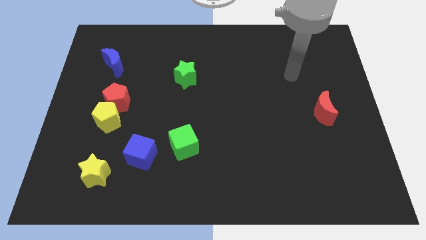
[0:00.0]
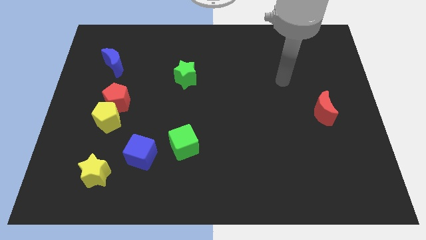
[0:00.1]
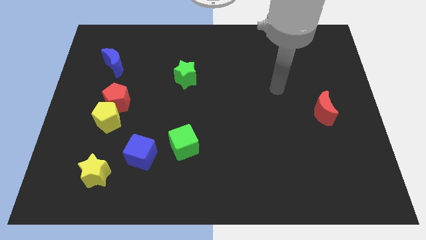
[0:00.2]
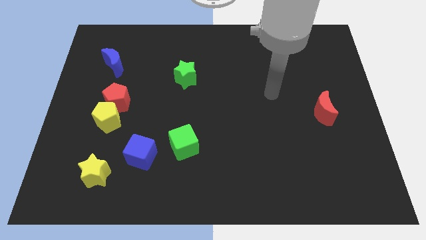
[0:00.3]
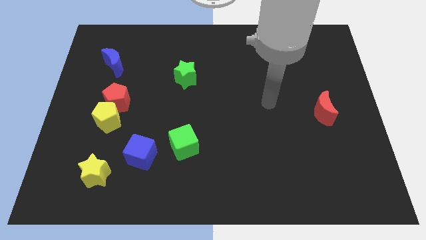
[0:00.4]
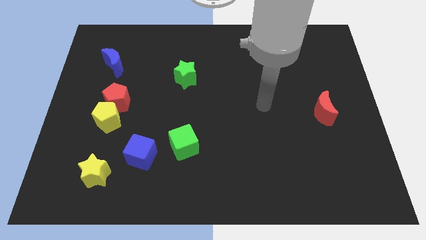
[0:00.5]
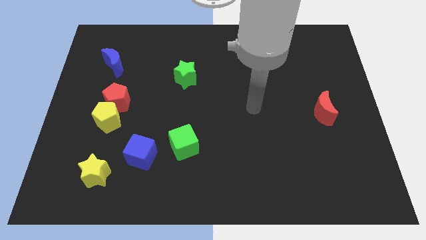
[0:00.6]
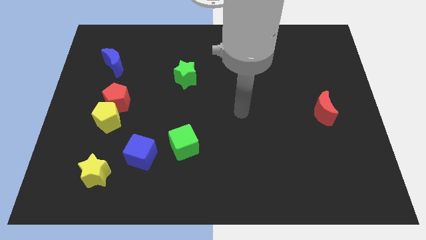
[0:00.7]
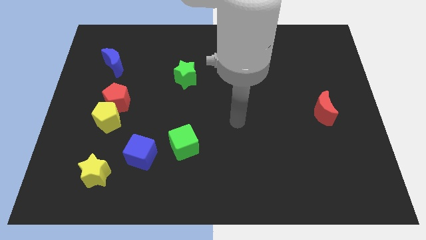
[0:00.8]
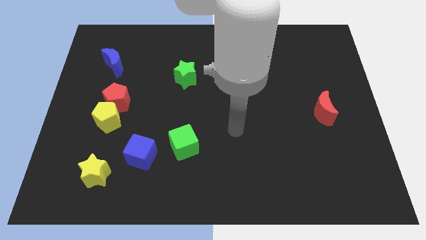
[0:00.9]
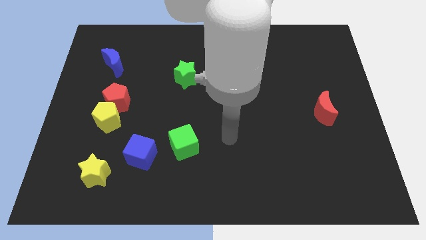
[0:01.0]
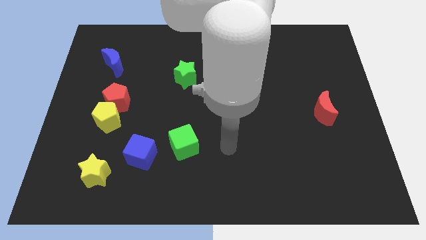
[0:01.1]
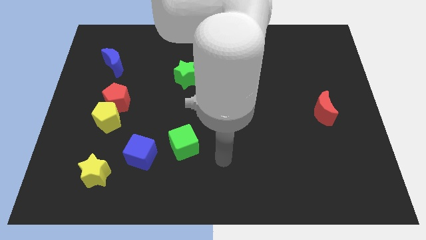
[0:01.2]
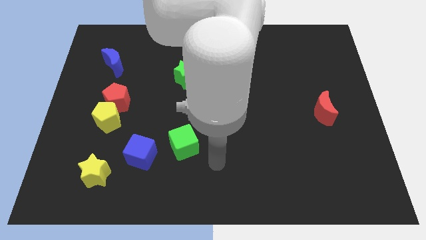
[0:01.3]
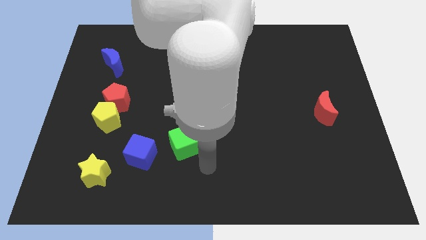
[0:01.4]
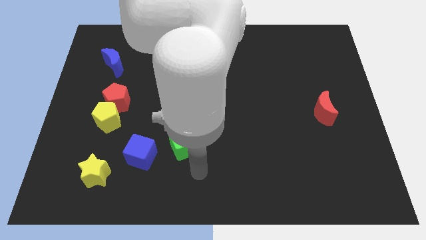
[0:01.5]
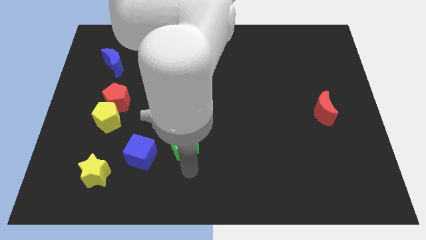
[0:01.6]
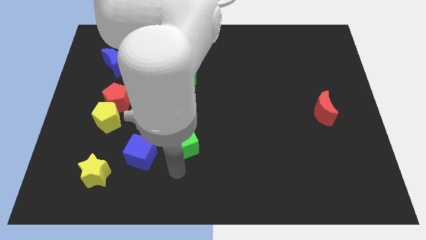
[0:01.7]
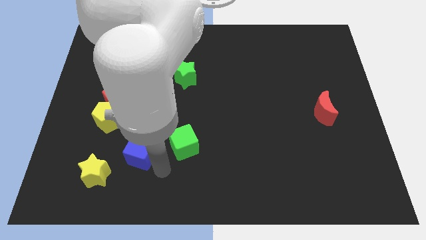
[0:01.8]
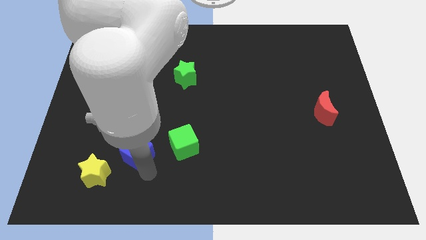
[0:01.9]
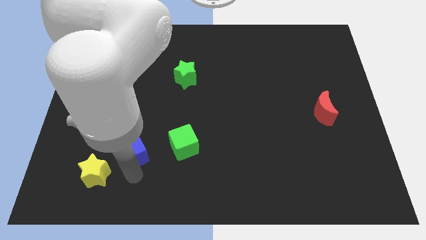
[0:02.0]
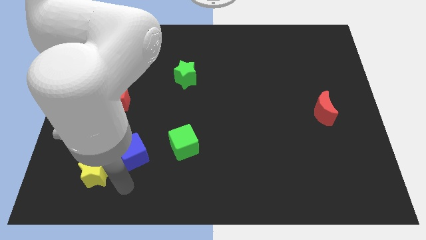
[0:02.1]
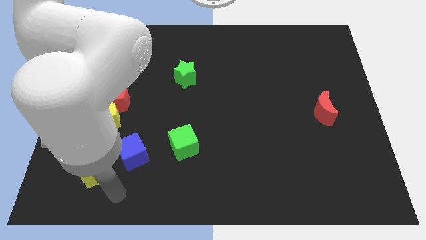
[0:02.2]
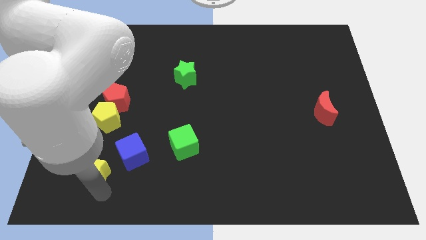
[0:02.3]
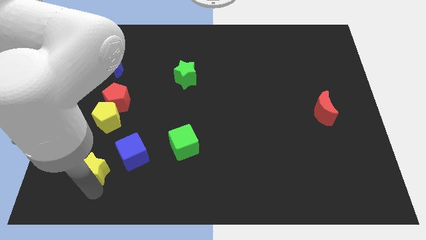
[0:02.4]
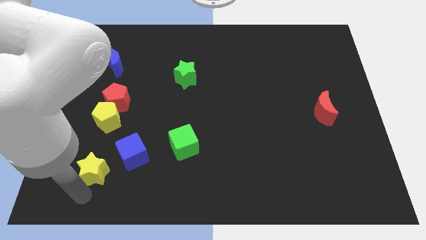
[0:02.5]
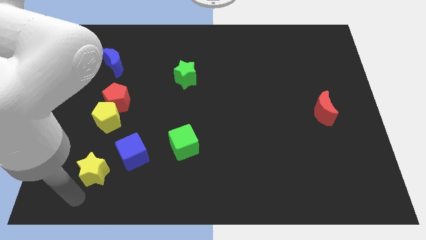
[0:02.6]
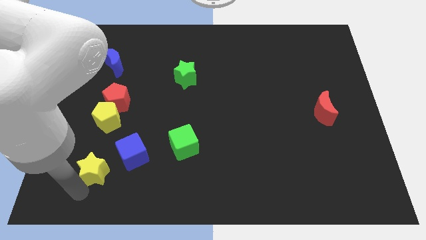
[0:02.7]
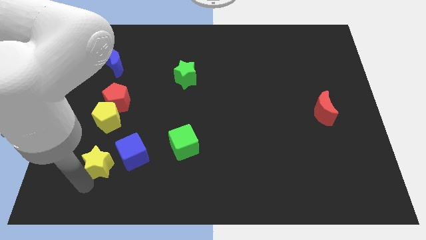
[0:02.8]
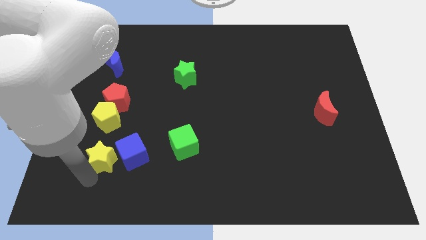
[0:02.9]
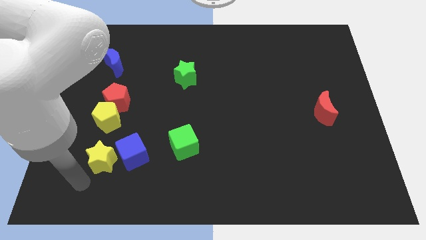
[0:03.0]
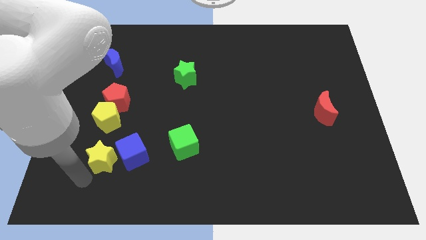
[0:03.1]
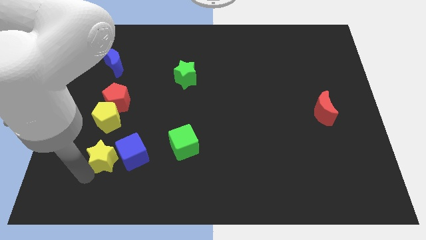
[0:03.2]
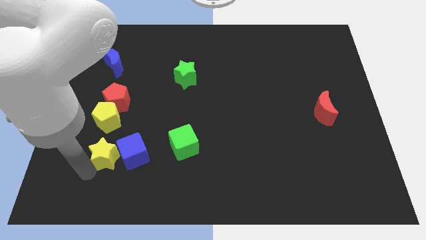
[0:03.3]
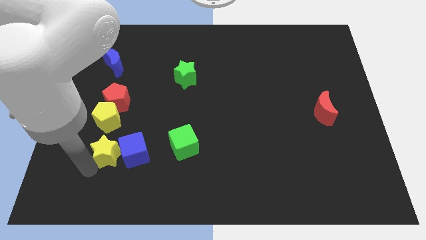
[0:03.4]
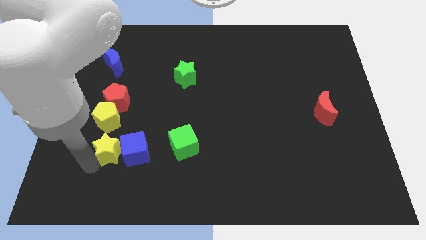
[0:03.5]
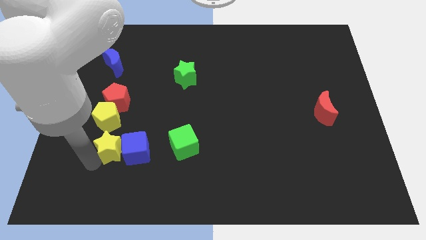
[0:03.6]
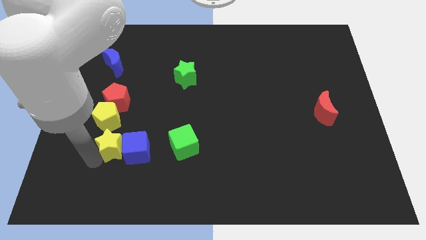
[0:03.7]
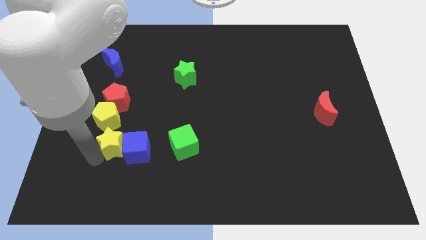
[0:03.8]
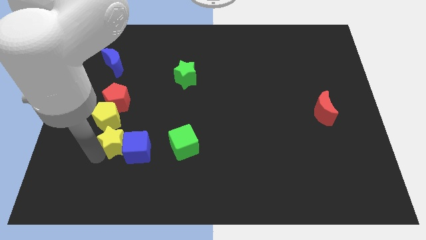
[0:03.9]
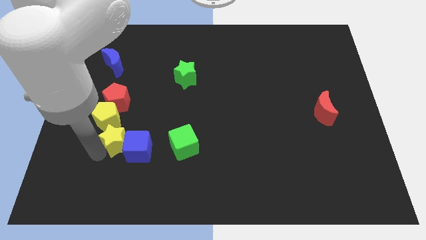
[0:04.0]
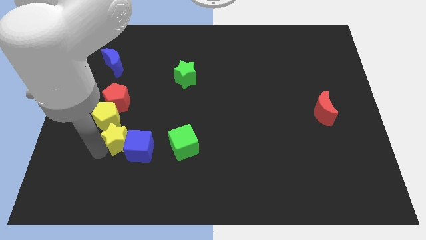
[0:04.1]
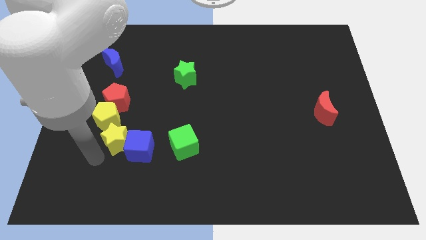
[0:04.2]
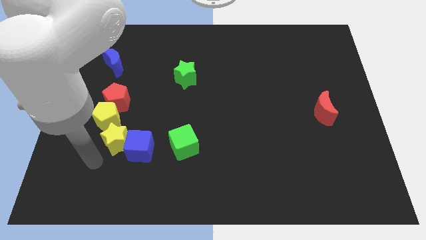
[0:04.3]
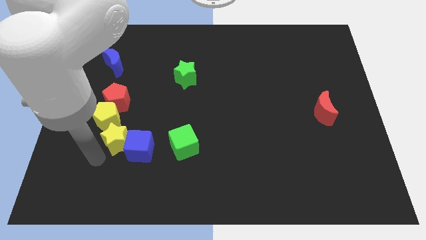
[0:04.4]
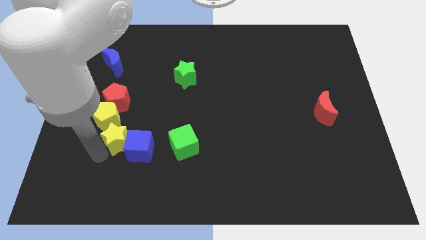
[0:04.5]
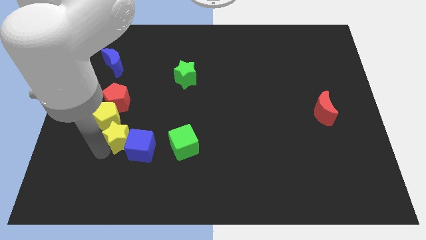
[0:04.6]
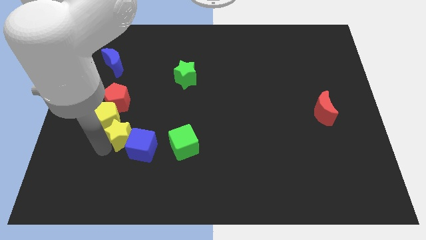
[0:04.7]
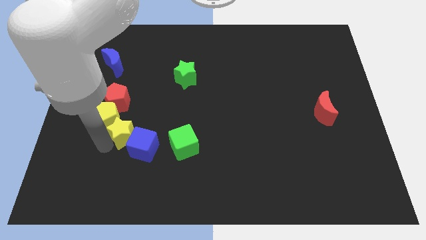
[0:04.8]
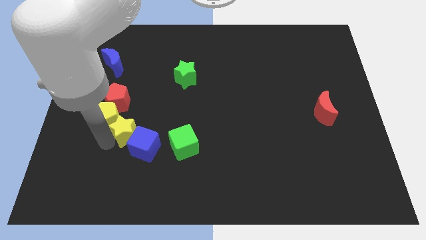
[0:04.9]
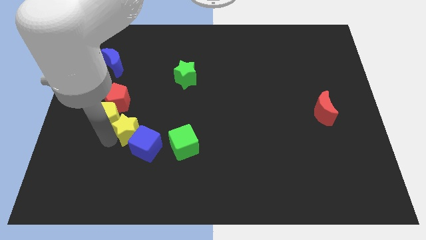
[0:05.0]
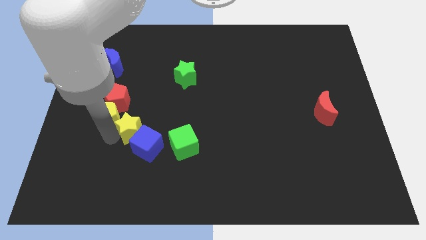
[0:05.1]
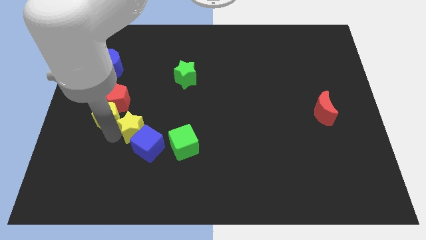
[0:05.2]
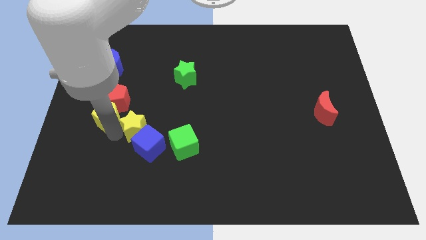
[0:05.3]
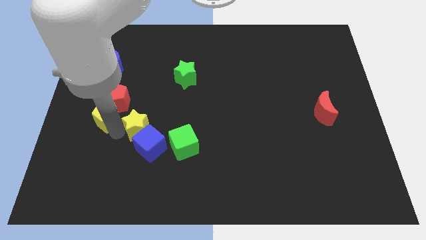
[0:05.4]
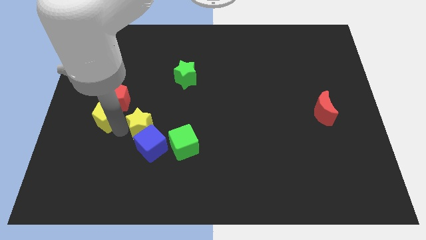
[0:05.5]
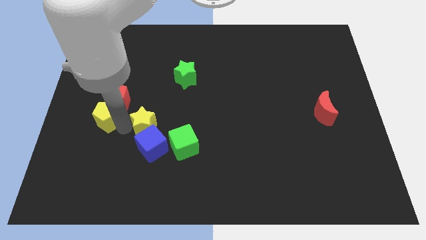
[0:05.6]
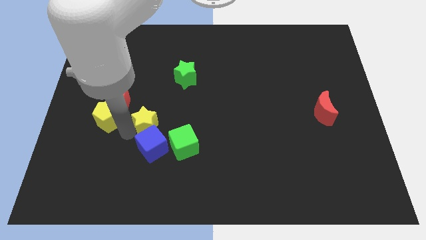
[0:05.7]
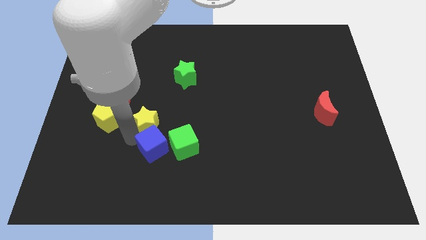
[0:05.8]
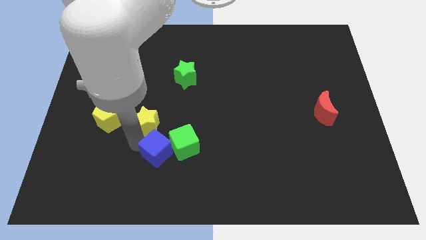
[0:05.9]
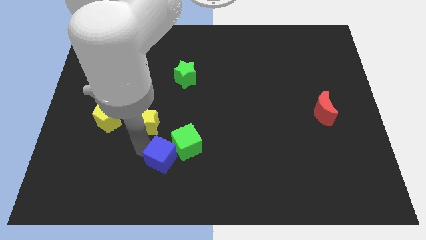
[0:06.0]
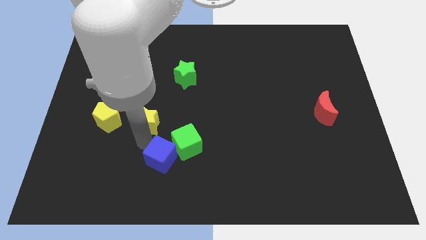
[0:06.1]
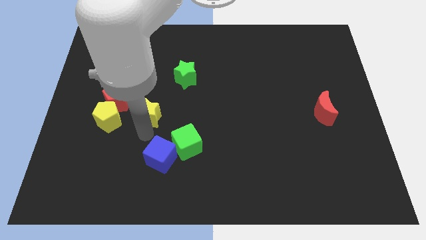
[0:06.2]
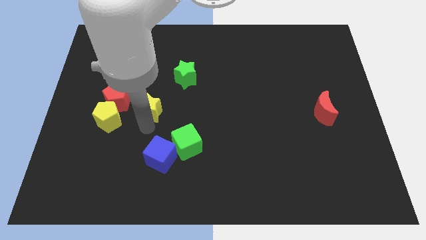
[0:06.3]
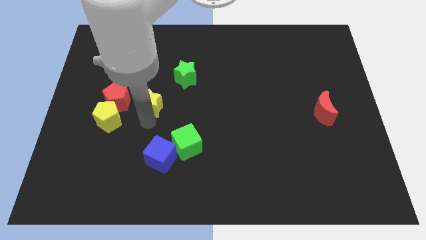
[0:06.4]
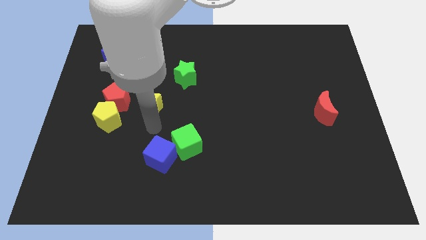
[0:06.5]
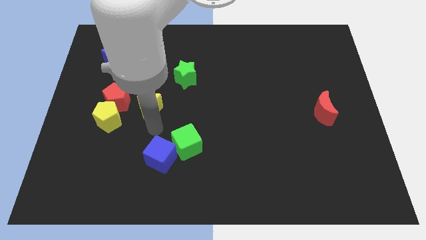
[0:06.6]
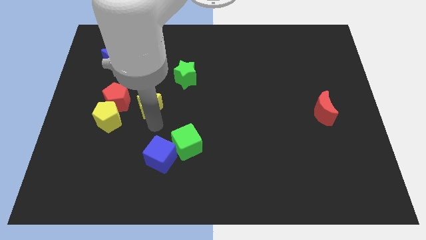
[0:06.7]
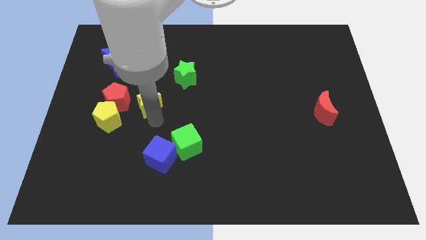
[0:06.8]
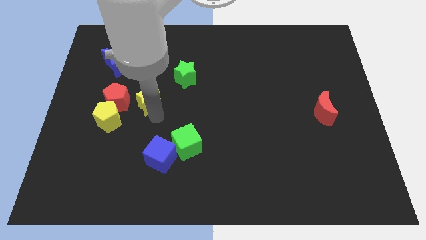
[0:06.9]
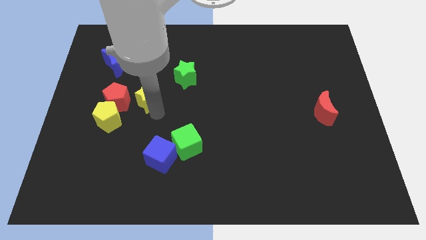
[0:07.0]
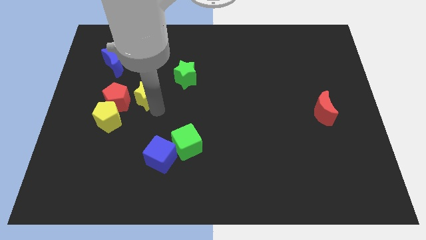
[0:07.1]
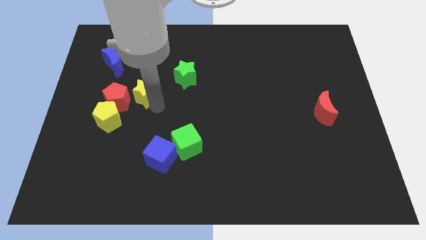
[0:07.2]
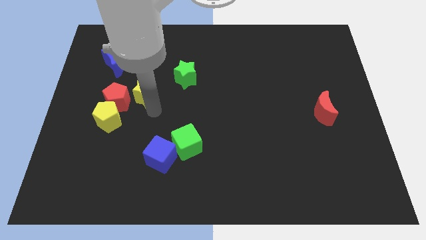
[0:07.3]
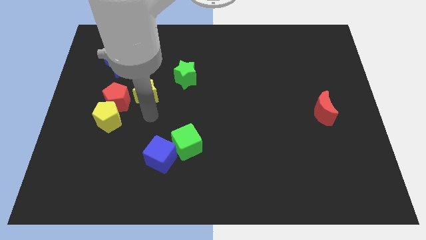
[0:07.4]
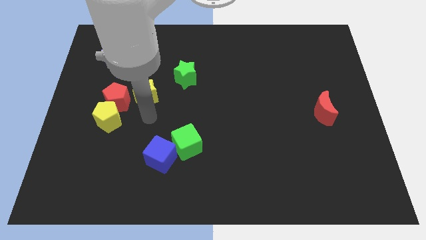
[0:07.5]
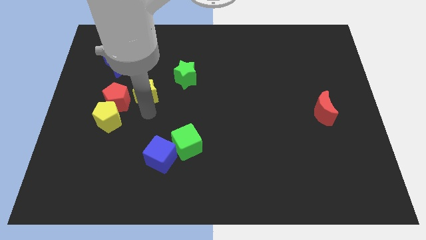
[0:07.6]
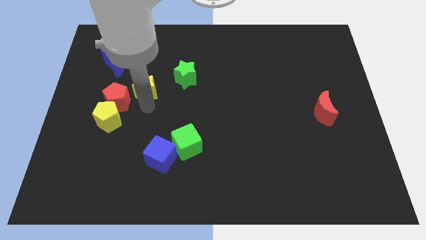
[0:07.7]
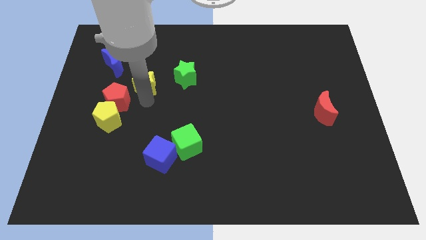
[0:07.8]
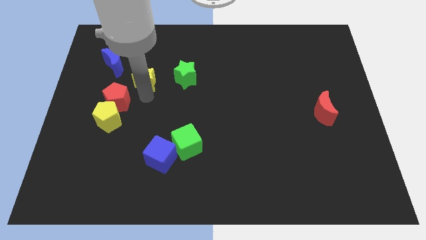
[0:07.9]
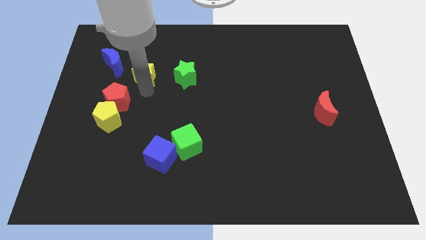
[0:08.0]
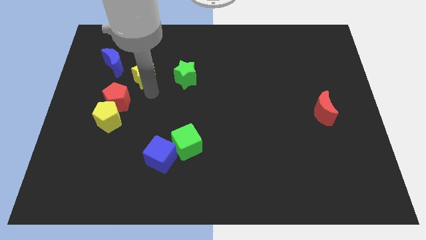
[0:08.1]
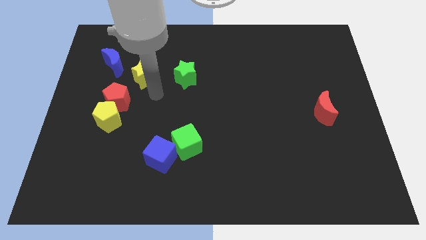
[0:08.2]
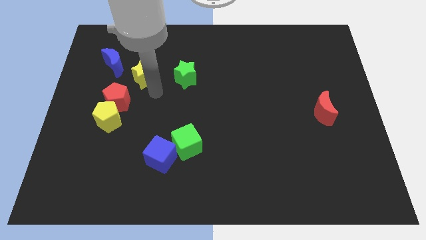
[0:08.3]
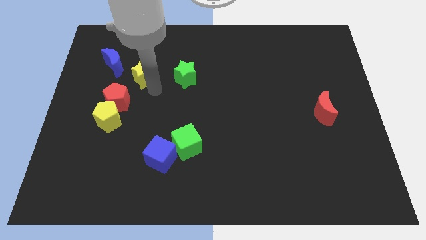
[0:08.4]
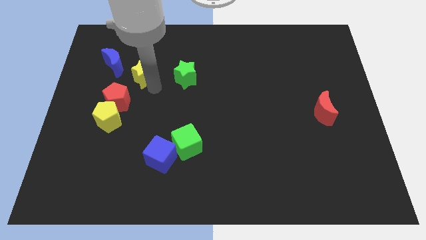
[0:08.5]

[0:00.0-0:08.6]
put the yellow star above the red pentagon
